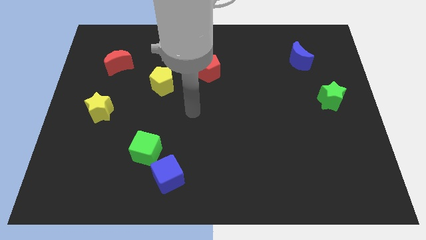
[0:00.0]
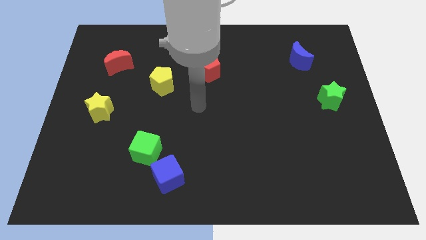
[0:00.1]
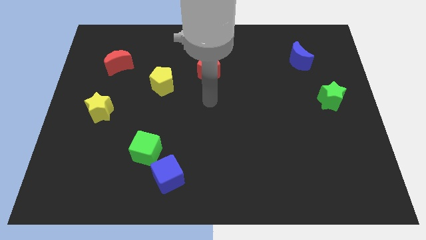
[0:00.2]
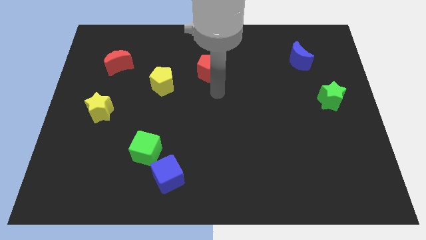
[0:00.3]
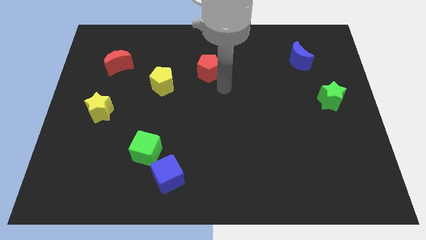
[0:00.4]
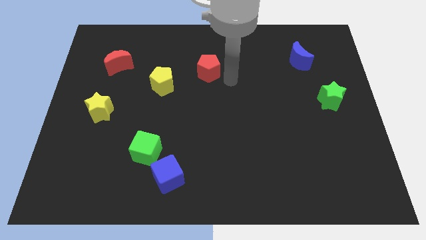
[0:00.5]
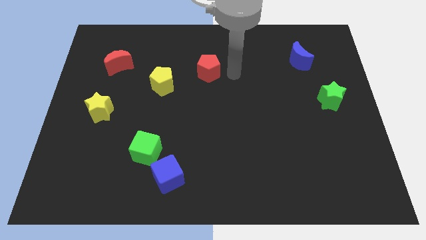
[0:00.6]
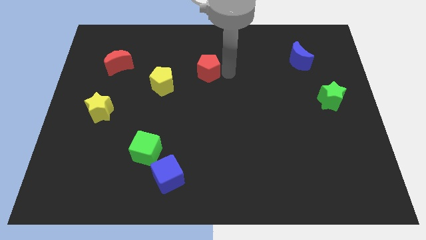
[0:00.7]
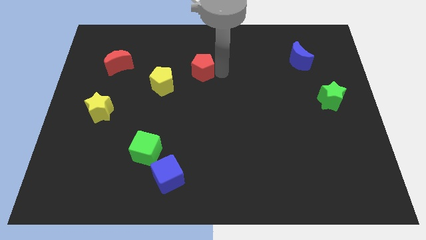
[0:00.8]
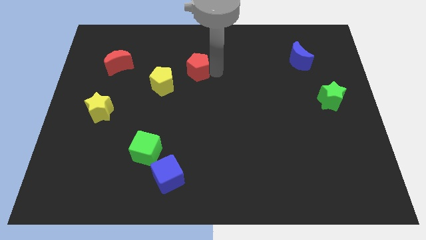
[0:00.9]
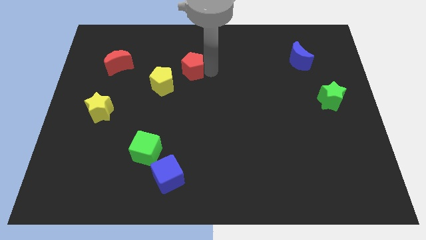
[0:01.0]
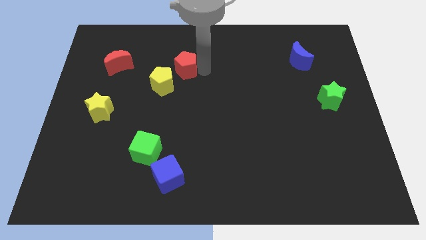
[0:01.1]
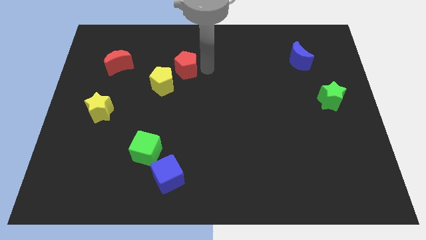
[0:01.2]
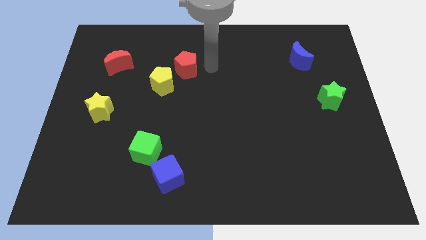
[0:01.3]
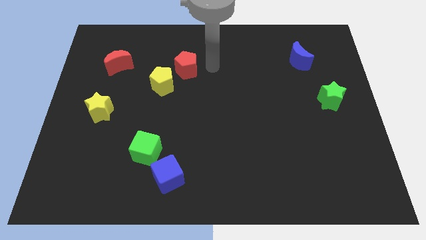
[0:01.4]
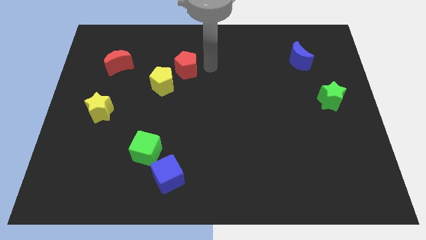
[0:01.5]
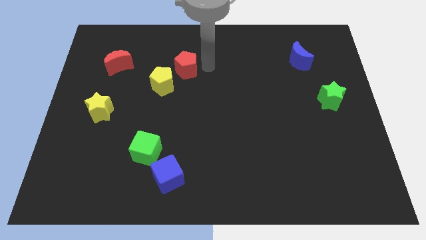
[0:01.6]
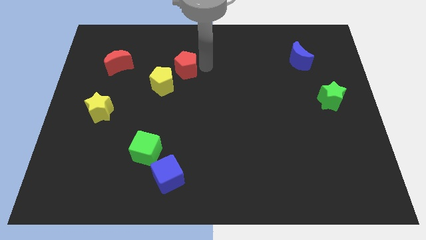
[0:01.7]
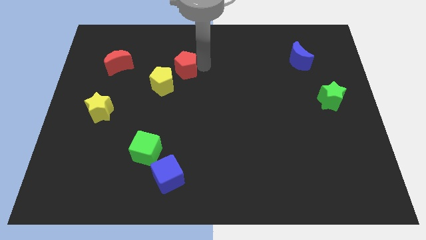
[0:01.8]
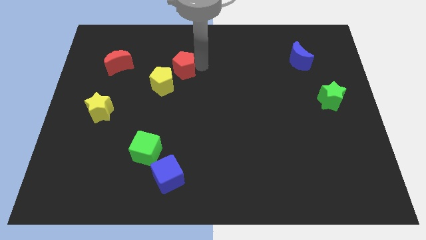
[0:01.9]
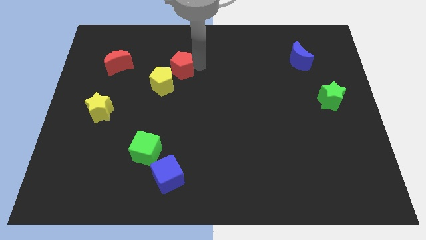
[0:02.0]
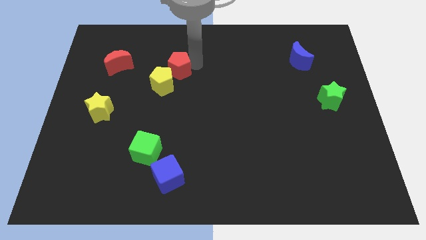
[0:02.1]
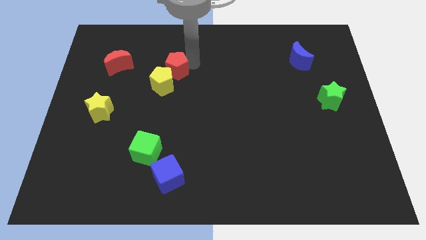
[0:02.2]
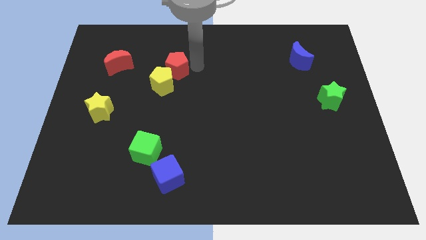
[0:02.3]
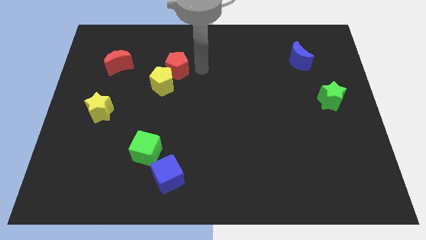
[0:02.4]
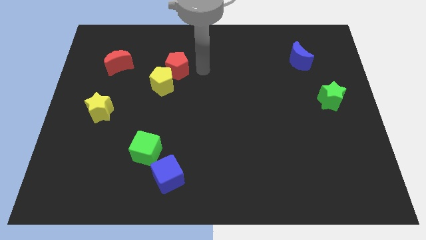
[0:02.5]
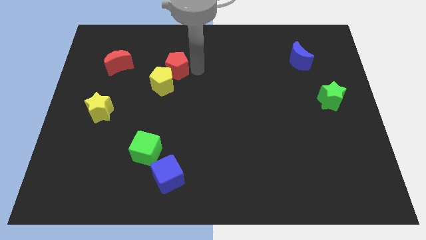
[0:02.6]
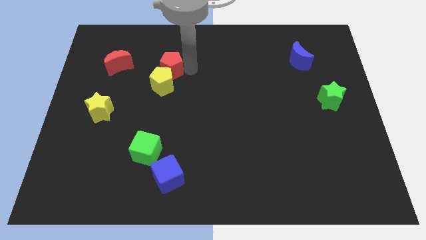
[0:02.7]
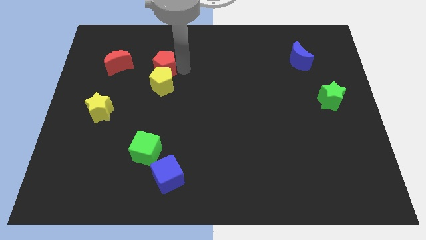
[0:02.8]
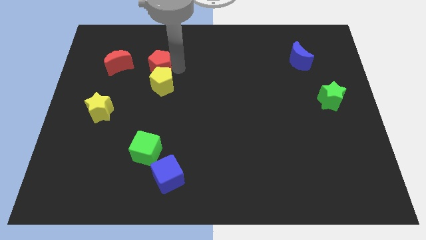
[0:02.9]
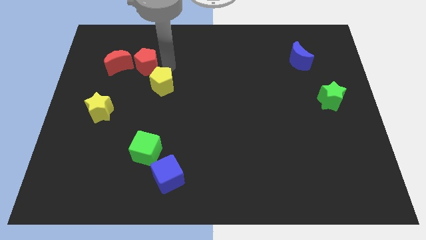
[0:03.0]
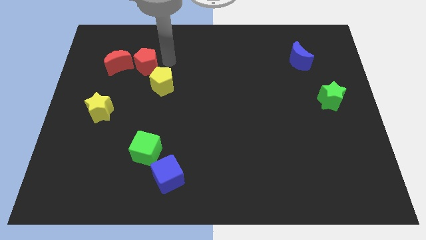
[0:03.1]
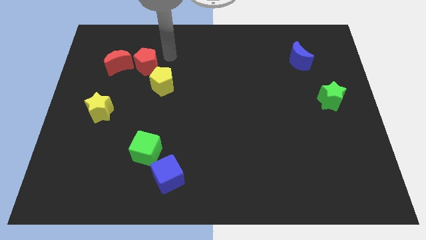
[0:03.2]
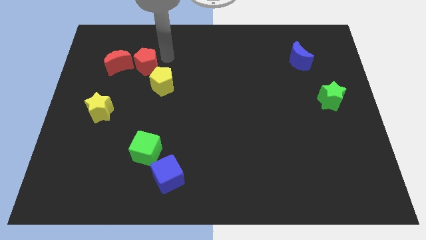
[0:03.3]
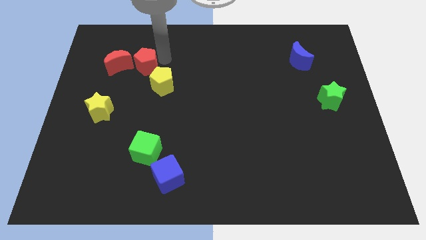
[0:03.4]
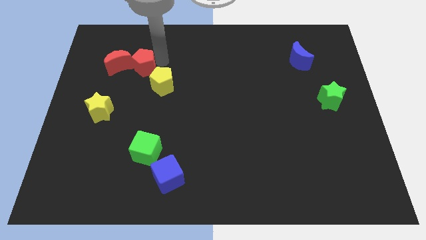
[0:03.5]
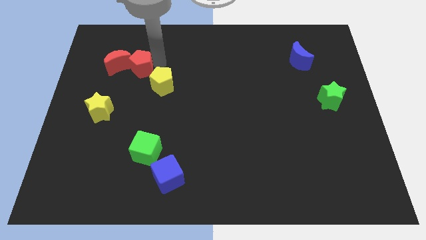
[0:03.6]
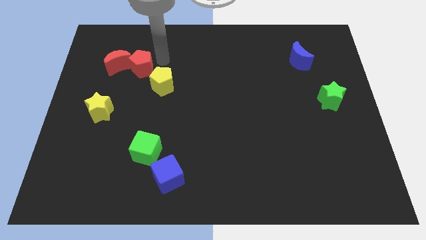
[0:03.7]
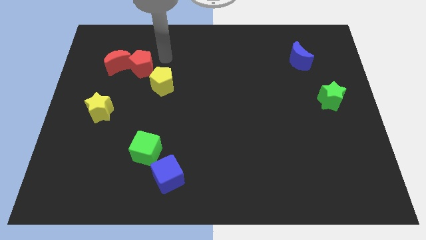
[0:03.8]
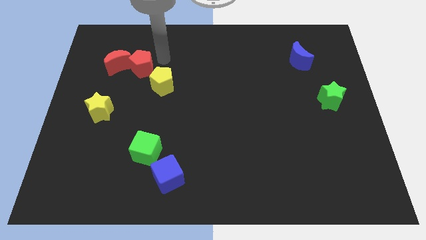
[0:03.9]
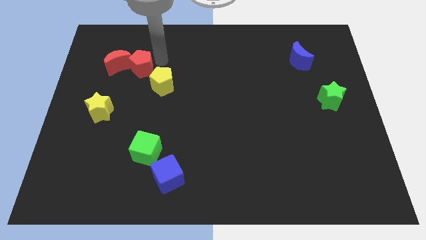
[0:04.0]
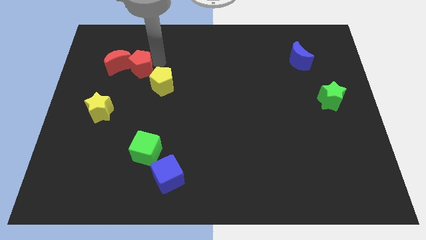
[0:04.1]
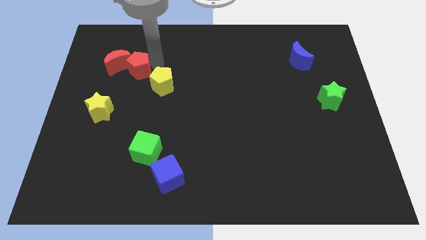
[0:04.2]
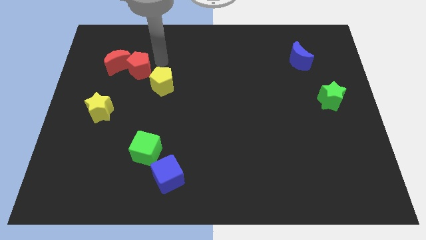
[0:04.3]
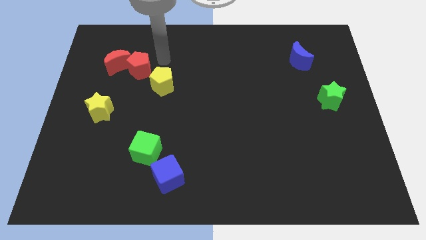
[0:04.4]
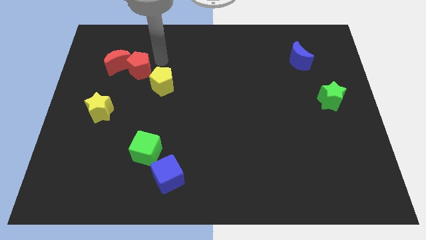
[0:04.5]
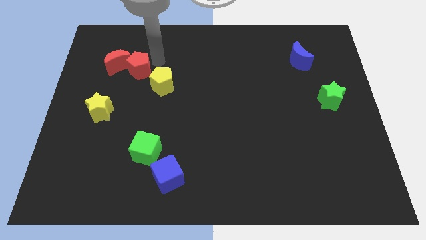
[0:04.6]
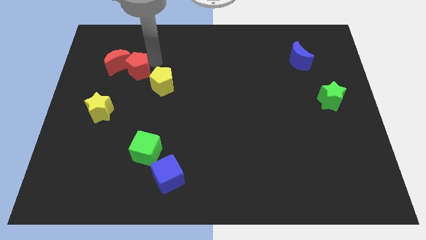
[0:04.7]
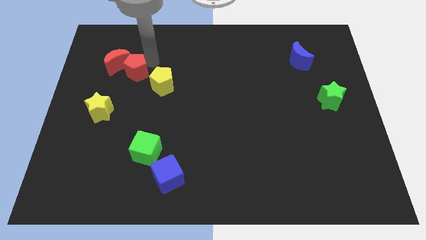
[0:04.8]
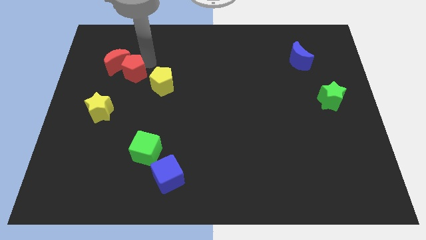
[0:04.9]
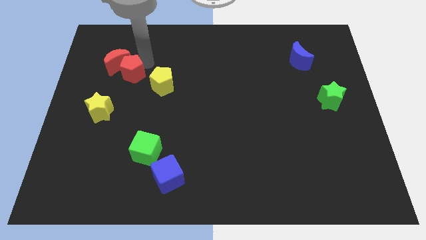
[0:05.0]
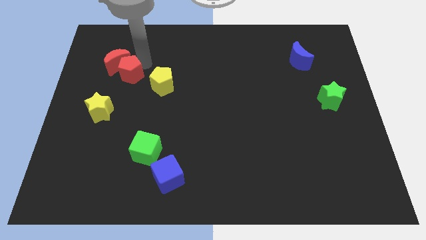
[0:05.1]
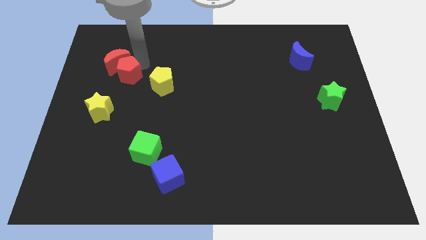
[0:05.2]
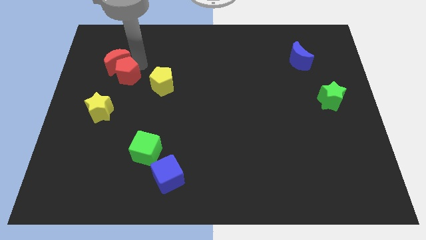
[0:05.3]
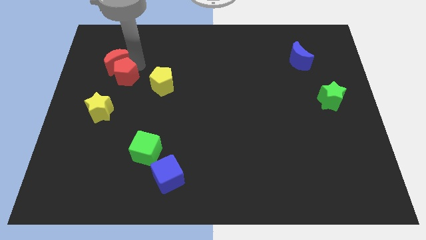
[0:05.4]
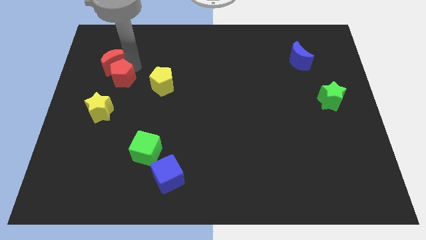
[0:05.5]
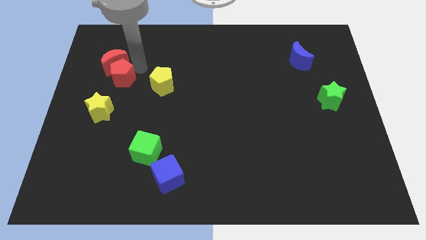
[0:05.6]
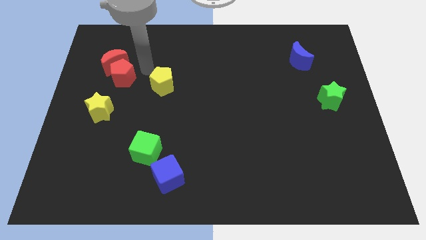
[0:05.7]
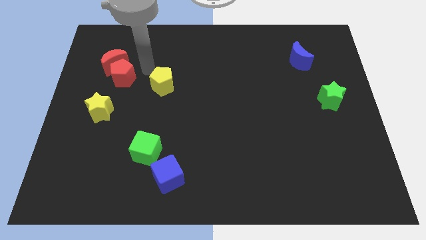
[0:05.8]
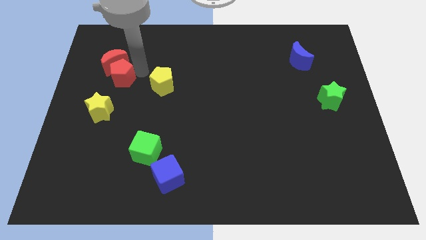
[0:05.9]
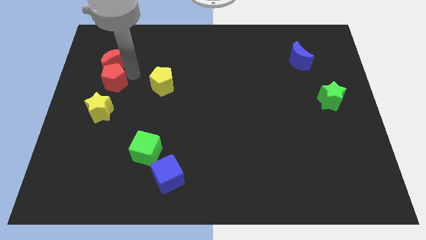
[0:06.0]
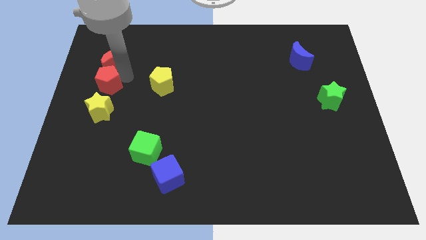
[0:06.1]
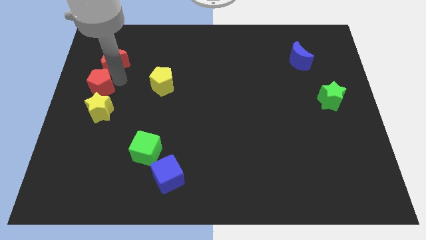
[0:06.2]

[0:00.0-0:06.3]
push the red pentagon to the left side of the board

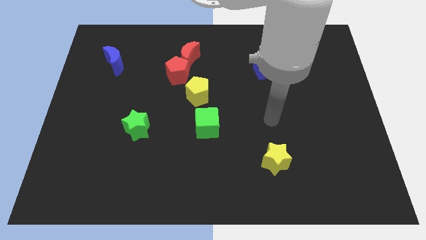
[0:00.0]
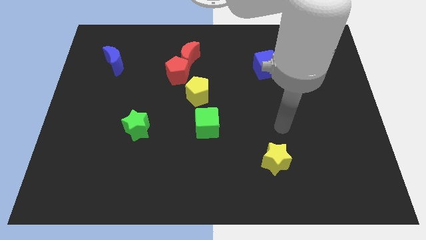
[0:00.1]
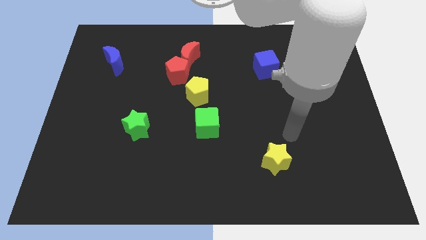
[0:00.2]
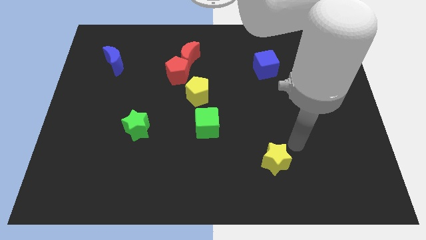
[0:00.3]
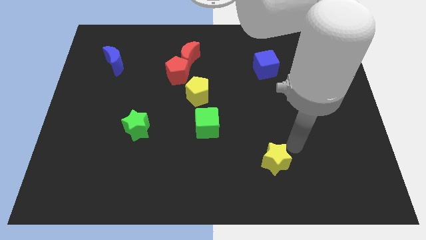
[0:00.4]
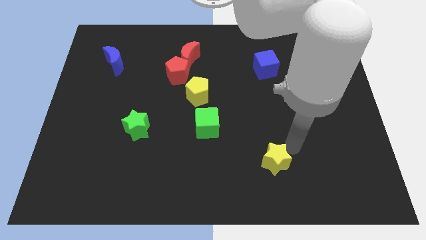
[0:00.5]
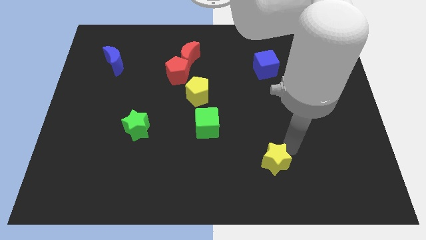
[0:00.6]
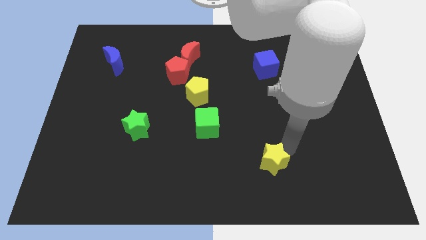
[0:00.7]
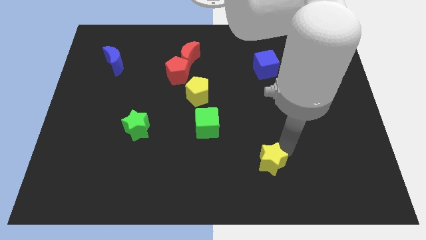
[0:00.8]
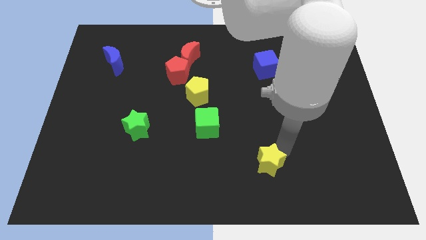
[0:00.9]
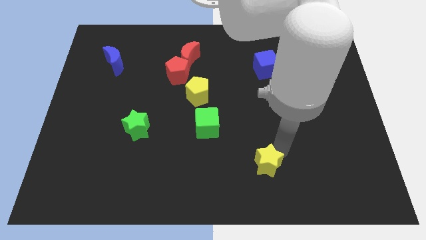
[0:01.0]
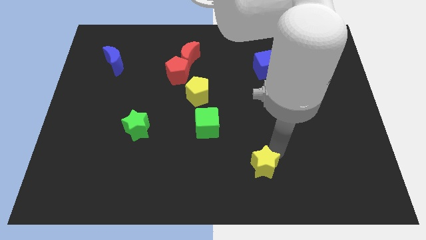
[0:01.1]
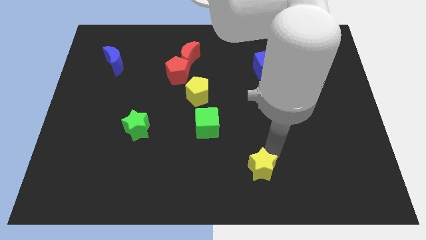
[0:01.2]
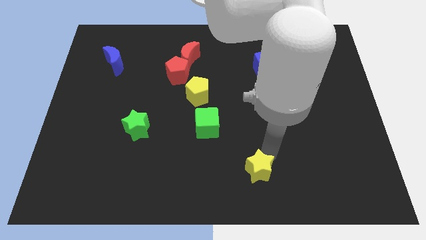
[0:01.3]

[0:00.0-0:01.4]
move the yellow star to the bottom side
